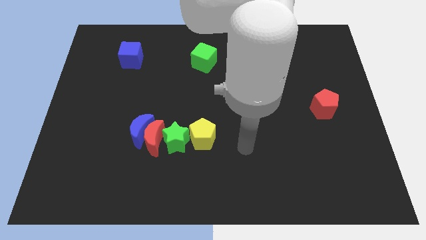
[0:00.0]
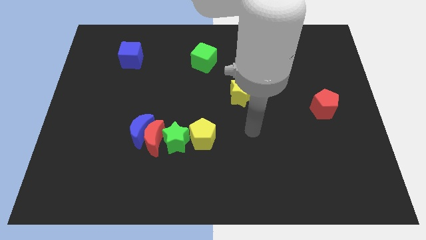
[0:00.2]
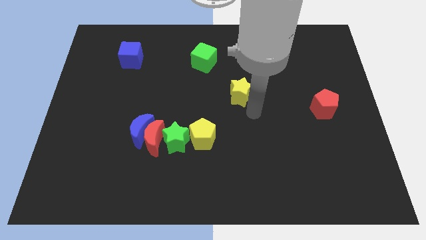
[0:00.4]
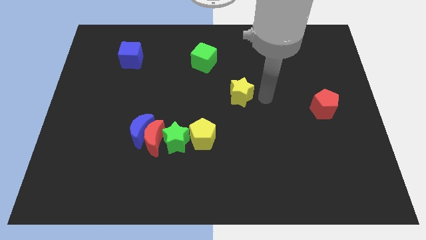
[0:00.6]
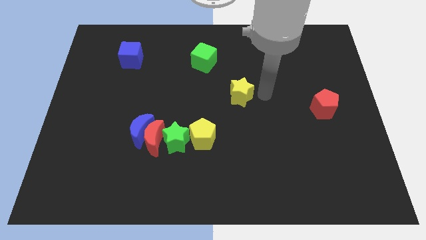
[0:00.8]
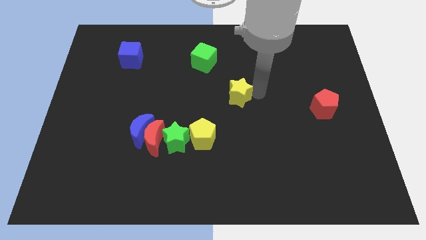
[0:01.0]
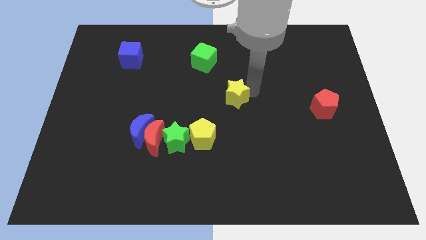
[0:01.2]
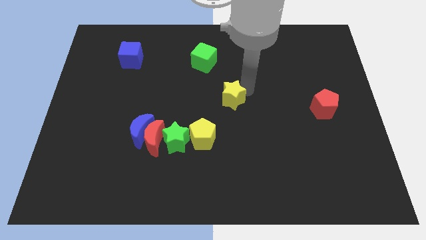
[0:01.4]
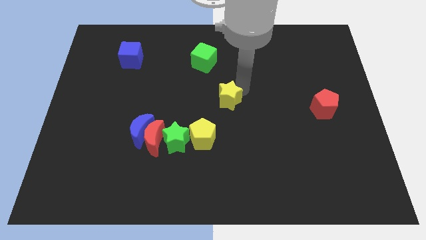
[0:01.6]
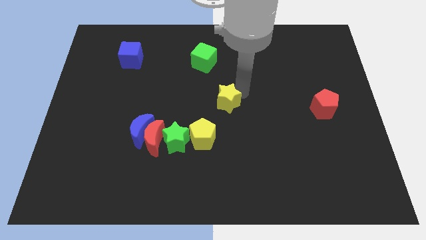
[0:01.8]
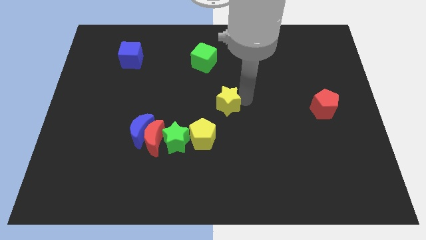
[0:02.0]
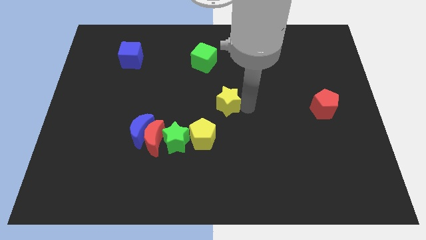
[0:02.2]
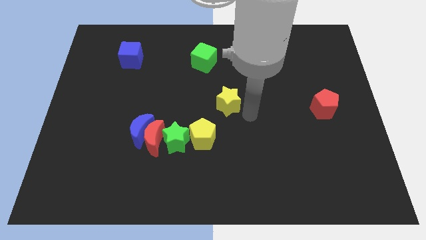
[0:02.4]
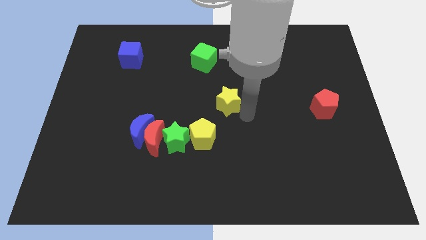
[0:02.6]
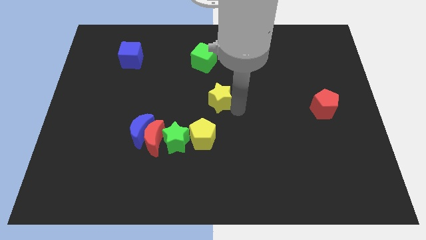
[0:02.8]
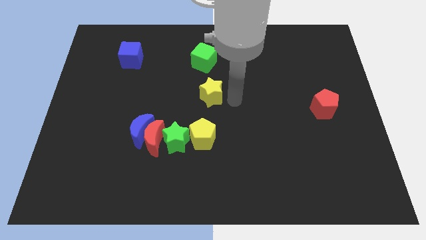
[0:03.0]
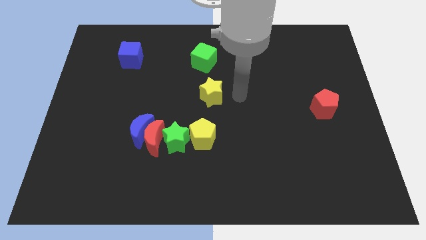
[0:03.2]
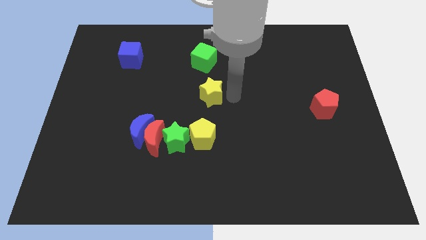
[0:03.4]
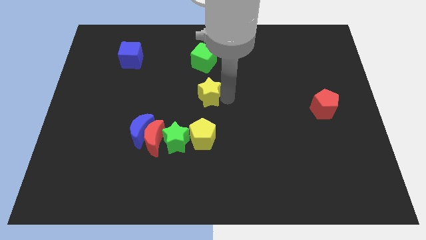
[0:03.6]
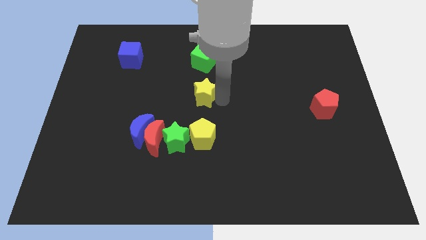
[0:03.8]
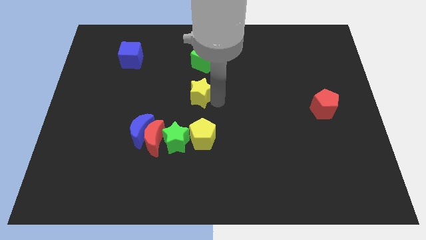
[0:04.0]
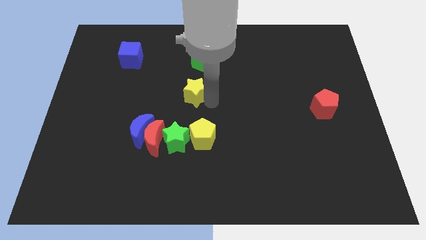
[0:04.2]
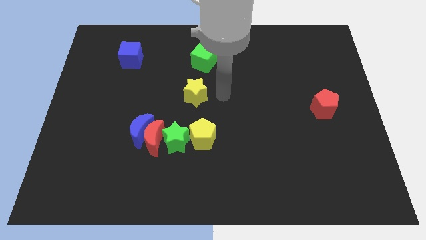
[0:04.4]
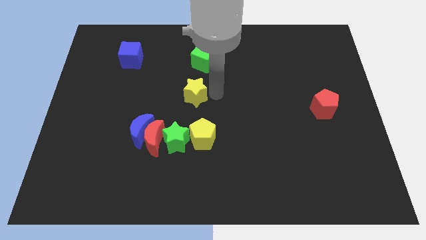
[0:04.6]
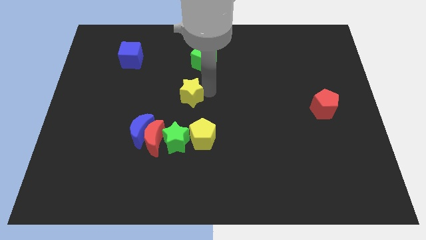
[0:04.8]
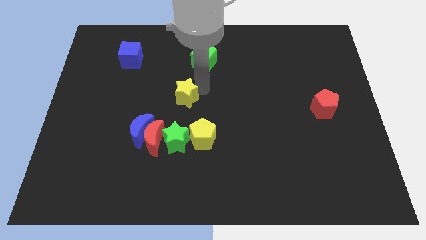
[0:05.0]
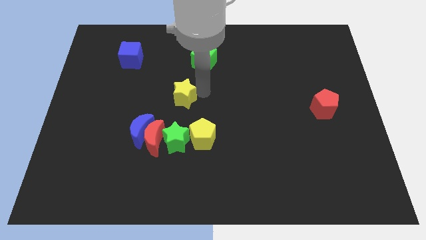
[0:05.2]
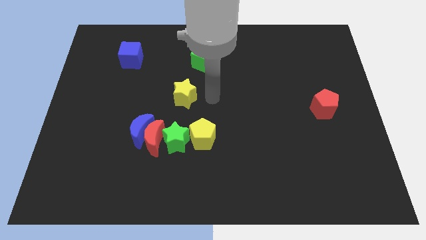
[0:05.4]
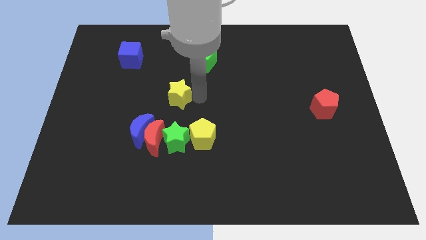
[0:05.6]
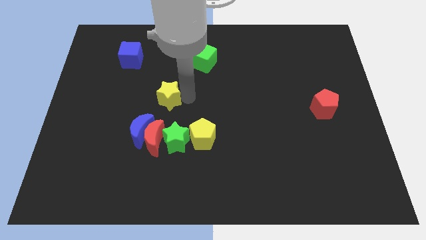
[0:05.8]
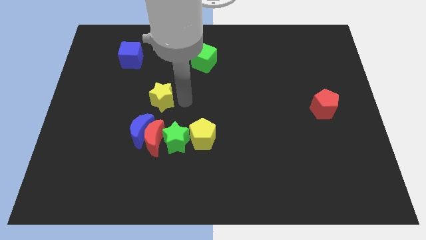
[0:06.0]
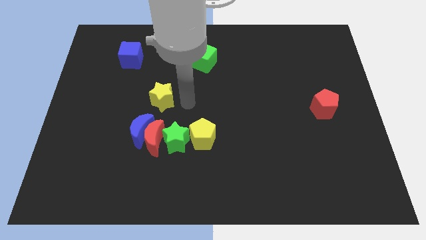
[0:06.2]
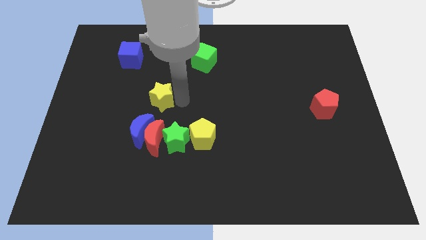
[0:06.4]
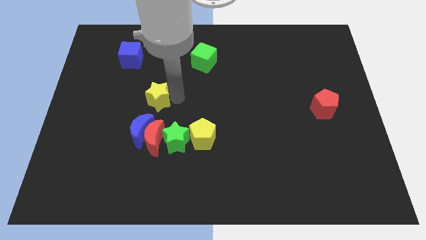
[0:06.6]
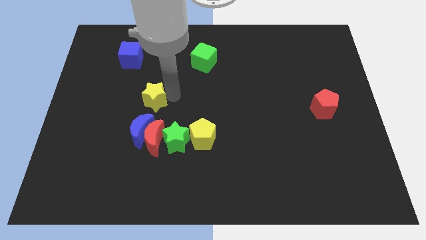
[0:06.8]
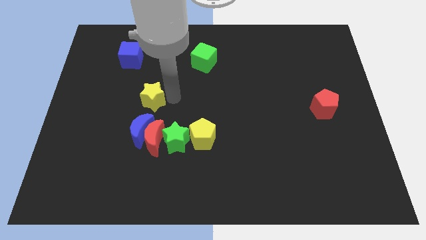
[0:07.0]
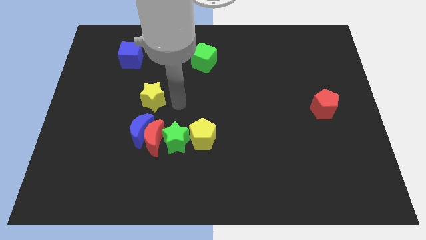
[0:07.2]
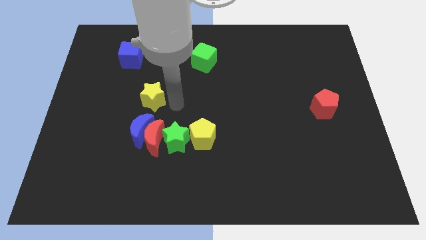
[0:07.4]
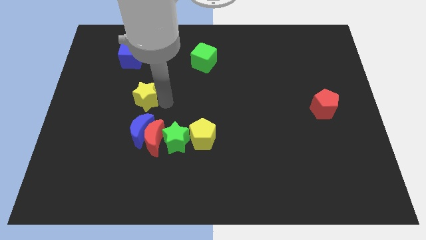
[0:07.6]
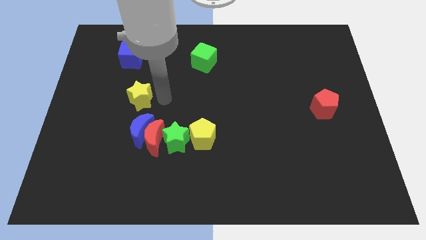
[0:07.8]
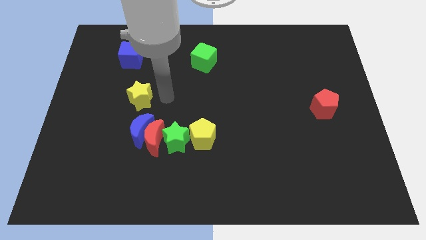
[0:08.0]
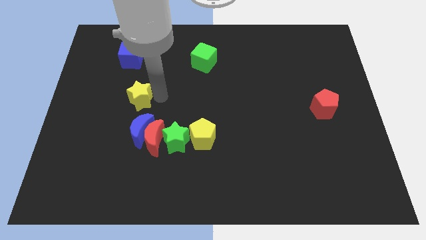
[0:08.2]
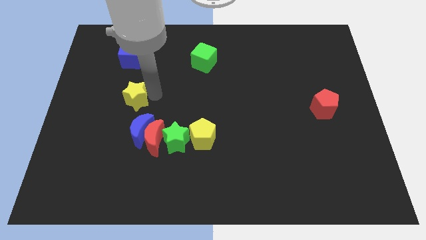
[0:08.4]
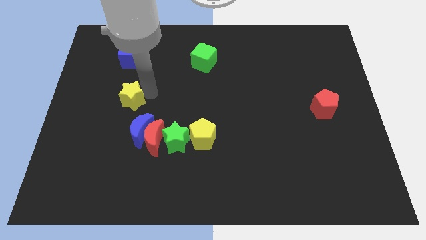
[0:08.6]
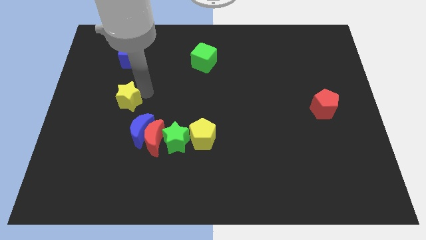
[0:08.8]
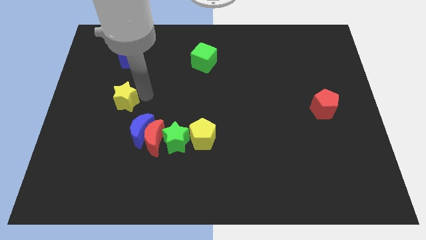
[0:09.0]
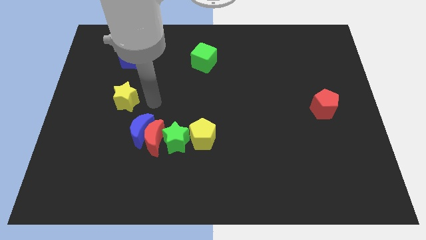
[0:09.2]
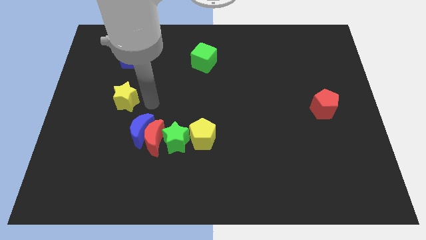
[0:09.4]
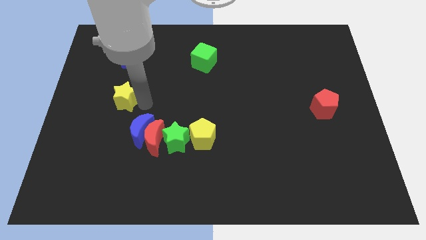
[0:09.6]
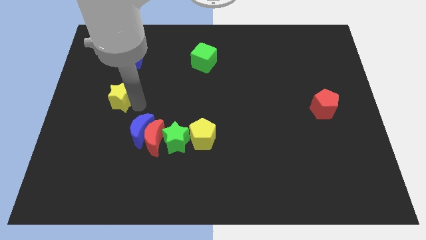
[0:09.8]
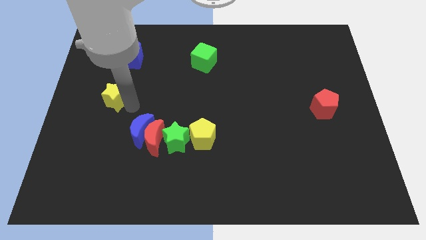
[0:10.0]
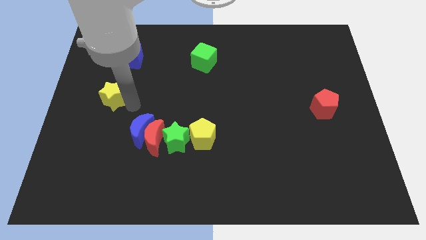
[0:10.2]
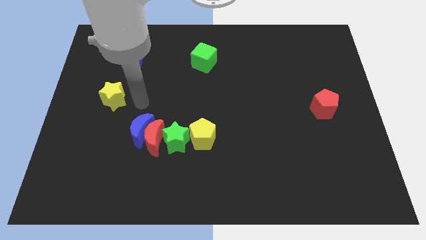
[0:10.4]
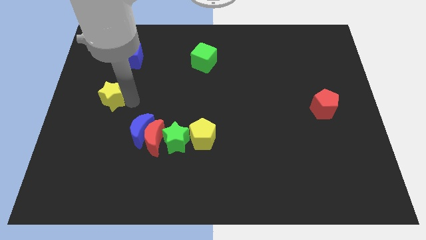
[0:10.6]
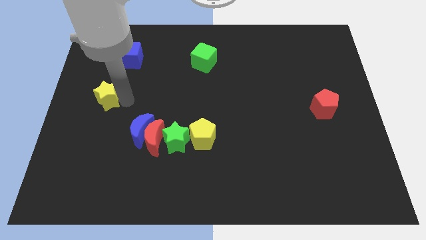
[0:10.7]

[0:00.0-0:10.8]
push the yellow star to the left side of the board

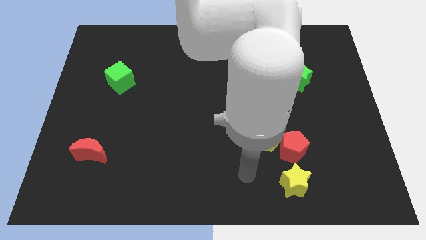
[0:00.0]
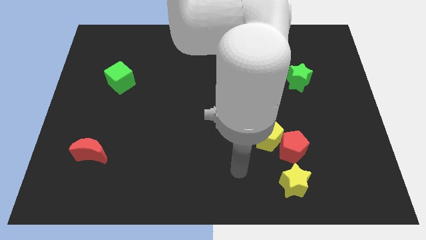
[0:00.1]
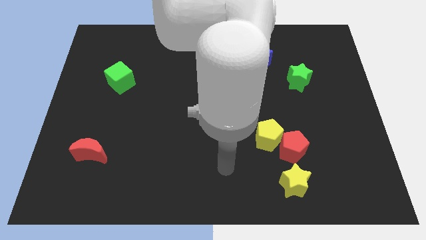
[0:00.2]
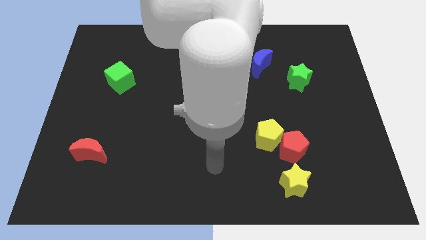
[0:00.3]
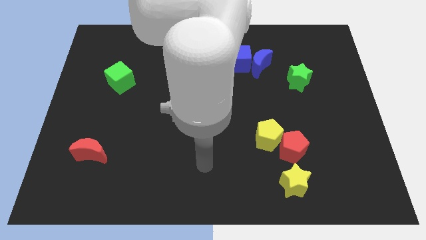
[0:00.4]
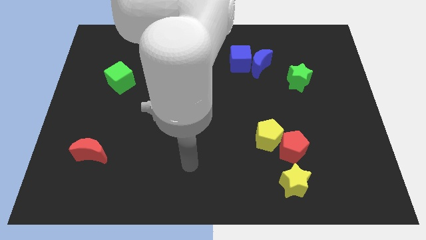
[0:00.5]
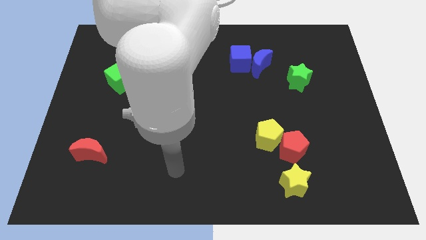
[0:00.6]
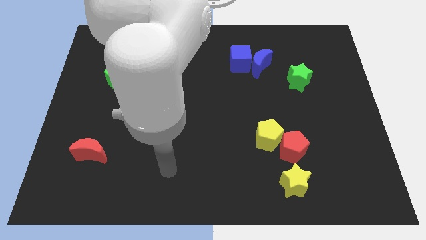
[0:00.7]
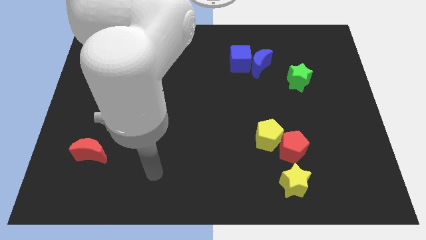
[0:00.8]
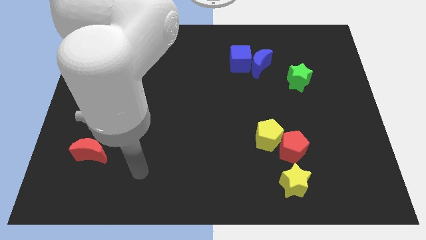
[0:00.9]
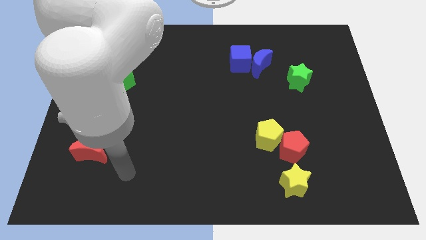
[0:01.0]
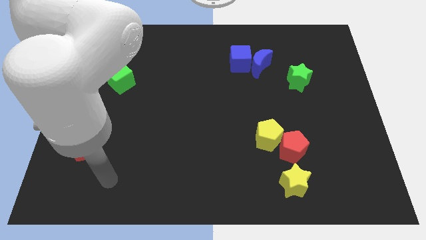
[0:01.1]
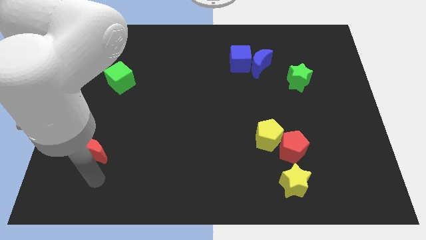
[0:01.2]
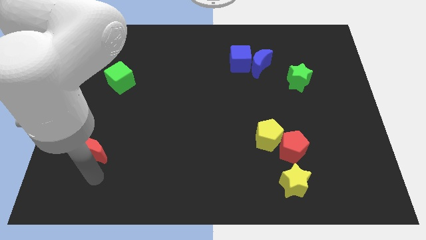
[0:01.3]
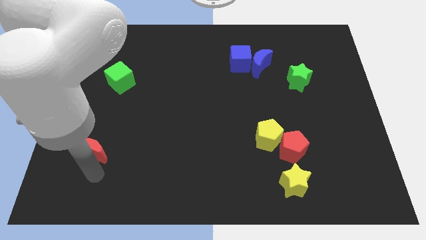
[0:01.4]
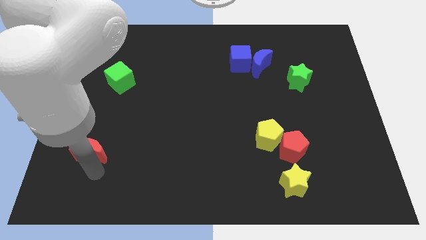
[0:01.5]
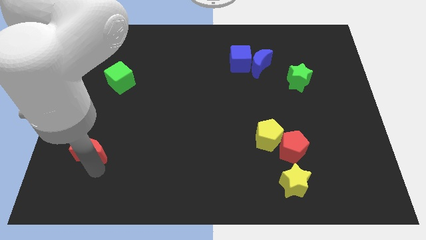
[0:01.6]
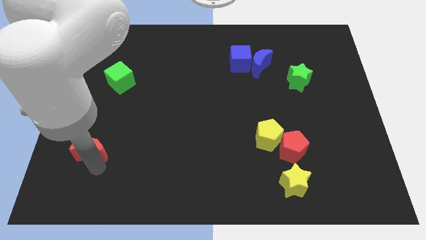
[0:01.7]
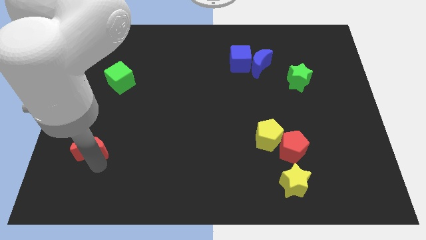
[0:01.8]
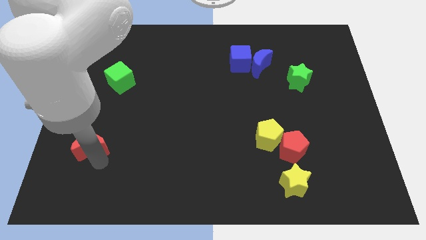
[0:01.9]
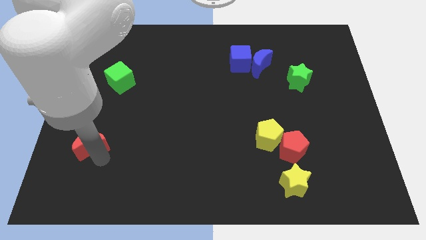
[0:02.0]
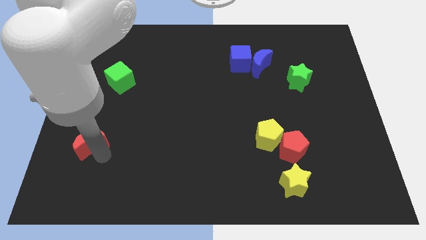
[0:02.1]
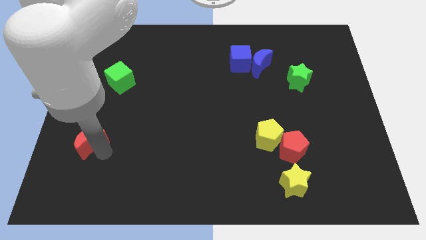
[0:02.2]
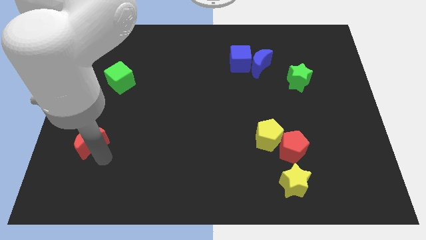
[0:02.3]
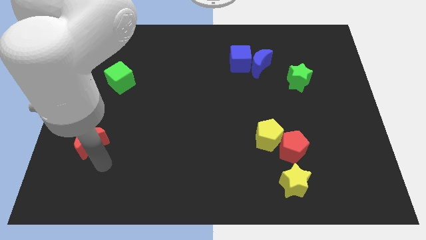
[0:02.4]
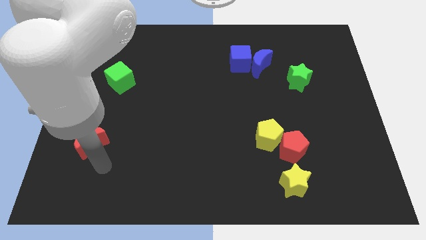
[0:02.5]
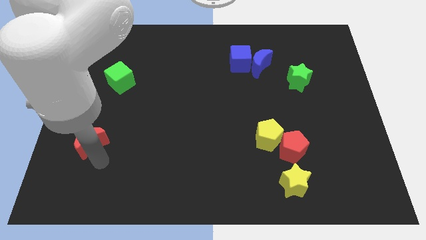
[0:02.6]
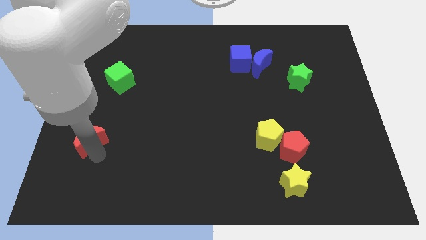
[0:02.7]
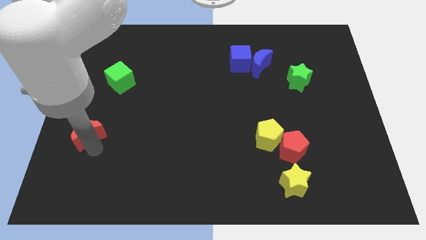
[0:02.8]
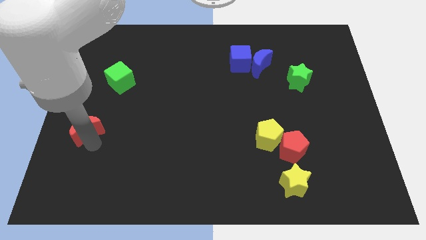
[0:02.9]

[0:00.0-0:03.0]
push the red moon to the center left
